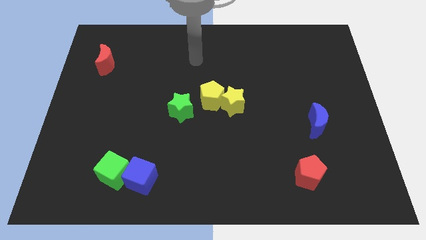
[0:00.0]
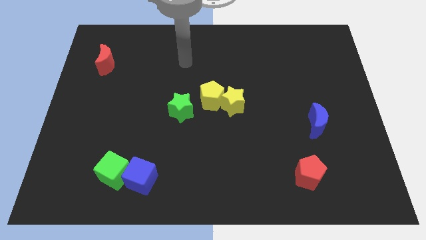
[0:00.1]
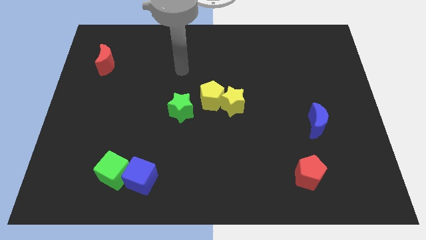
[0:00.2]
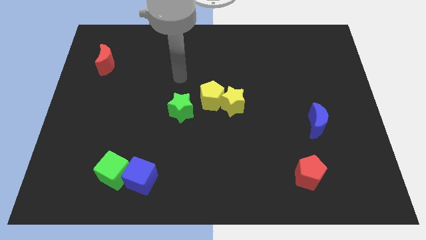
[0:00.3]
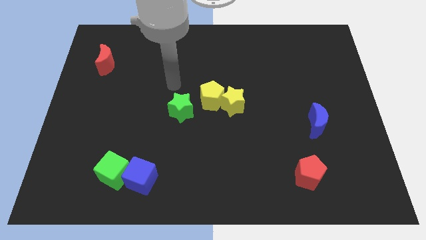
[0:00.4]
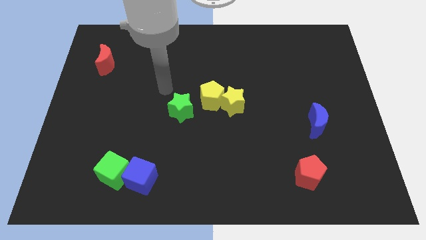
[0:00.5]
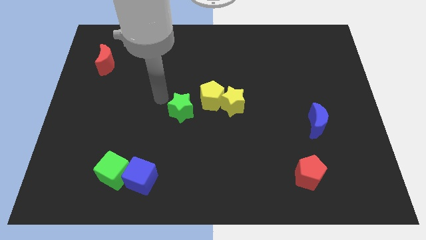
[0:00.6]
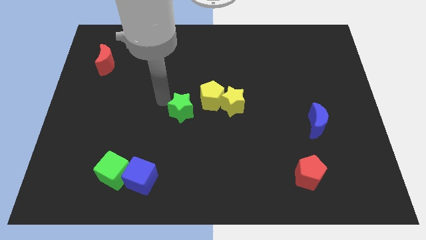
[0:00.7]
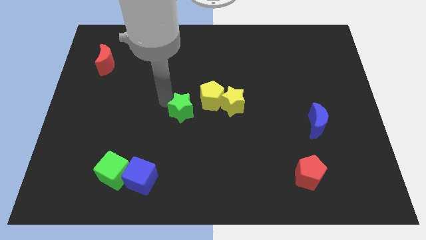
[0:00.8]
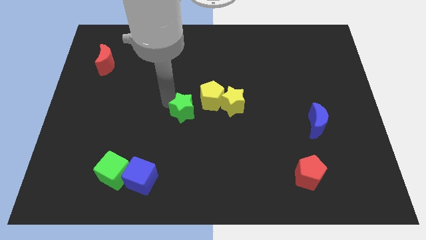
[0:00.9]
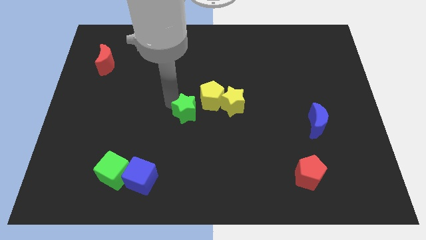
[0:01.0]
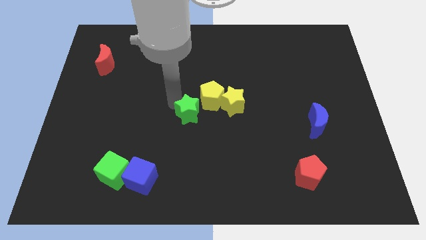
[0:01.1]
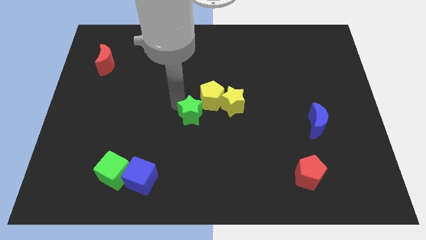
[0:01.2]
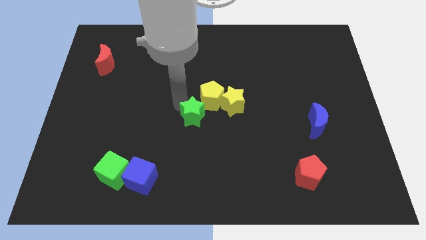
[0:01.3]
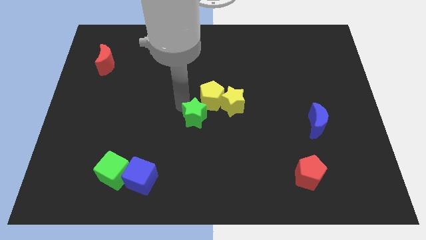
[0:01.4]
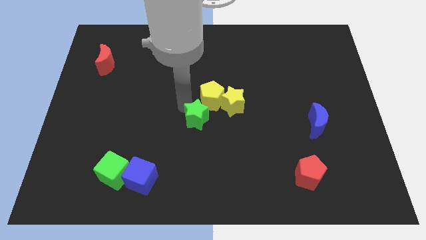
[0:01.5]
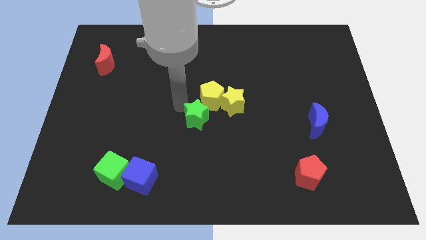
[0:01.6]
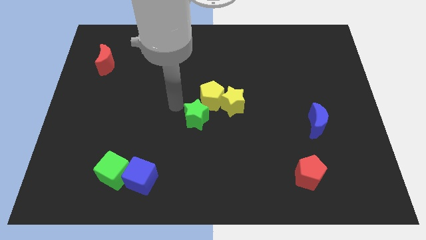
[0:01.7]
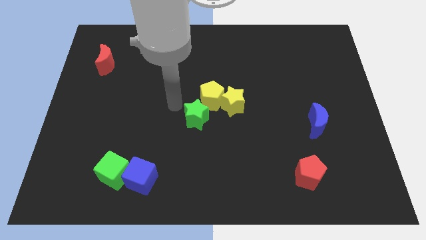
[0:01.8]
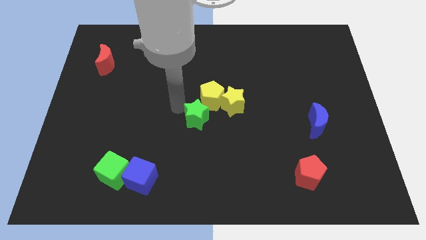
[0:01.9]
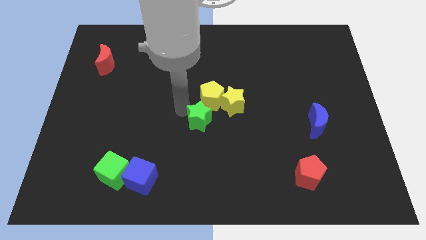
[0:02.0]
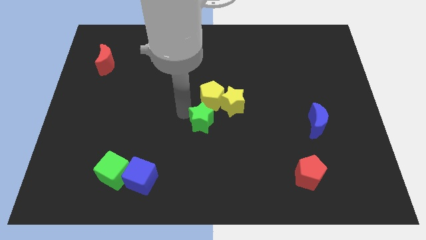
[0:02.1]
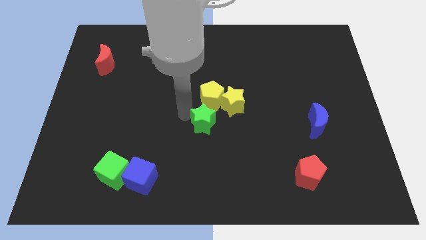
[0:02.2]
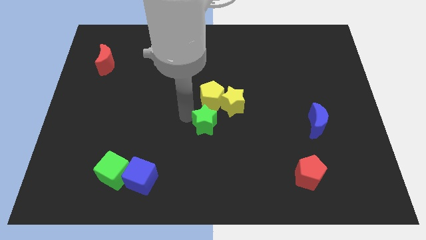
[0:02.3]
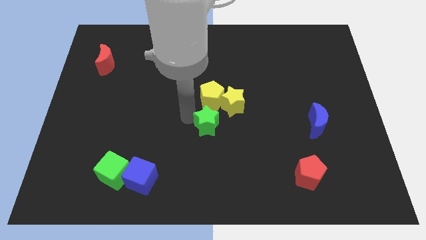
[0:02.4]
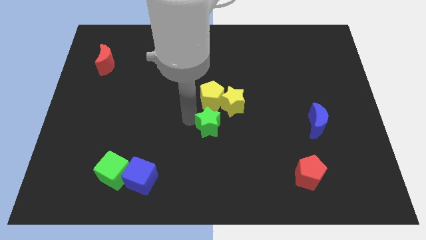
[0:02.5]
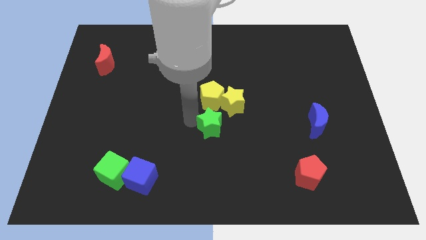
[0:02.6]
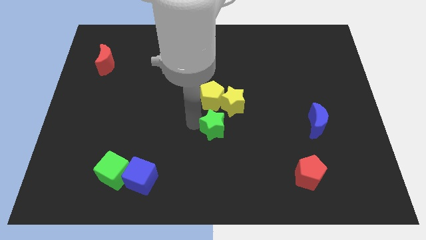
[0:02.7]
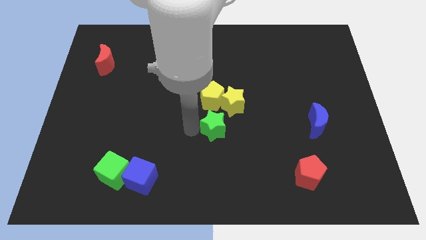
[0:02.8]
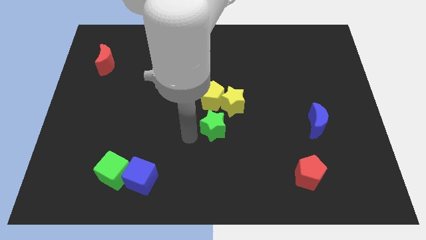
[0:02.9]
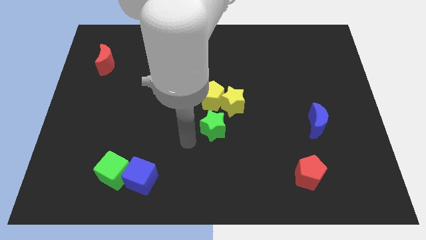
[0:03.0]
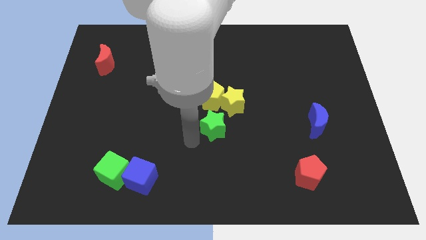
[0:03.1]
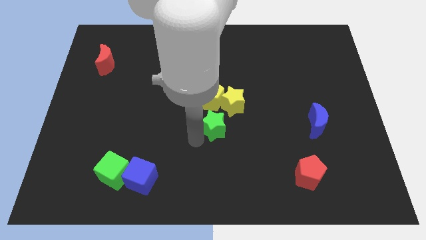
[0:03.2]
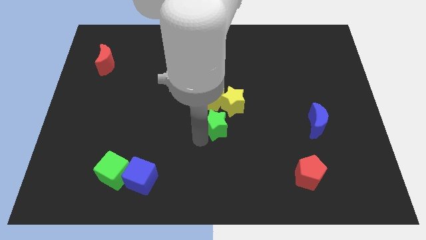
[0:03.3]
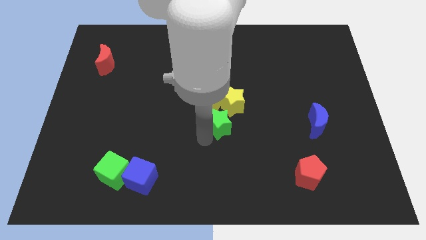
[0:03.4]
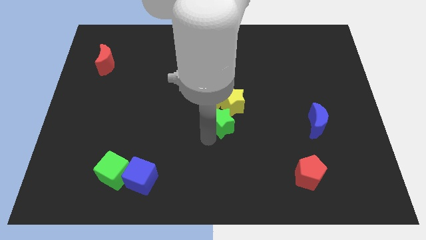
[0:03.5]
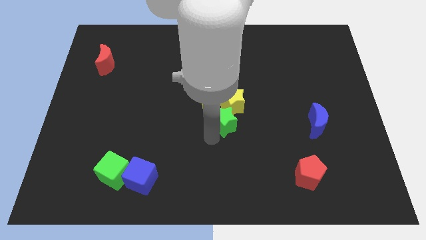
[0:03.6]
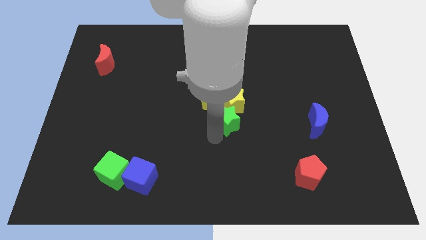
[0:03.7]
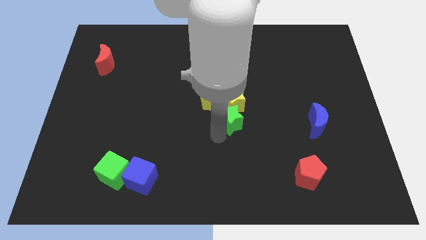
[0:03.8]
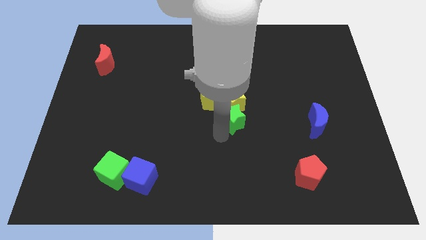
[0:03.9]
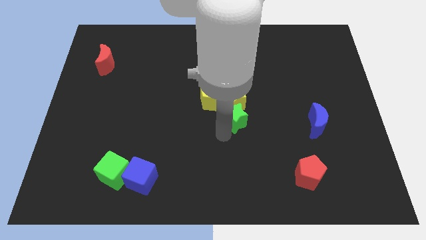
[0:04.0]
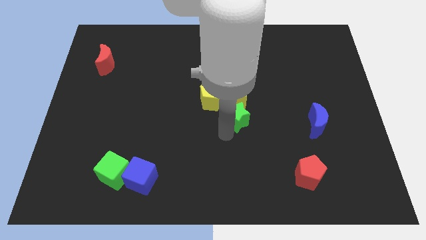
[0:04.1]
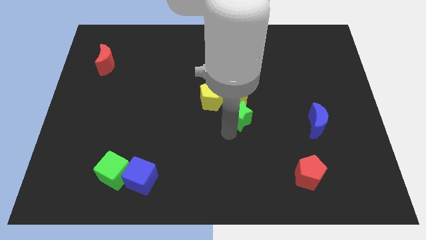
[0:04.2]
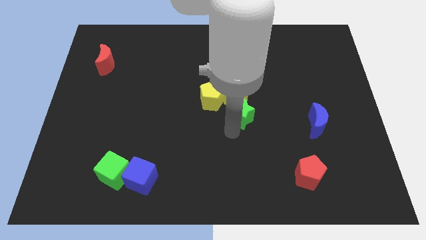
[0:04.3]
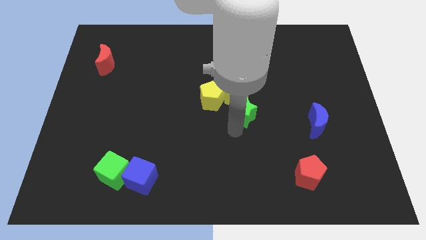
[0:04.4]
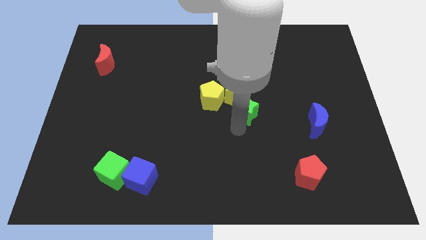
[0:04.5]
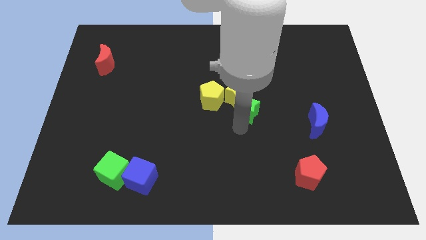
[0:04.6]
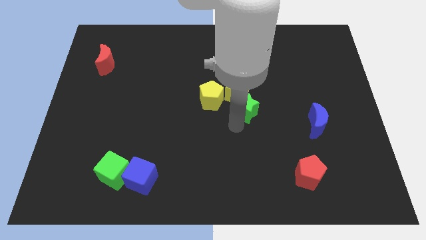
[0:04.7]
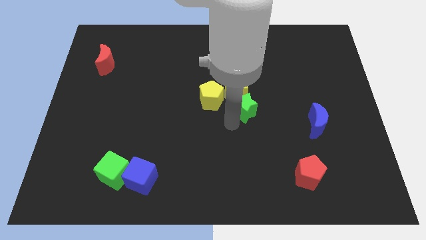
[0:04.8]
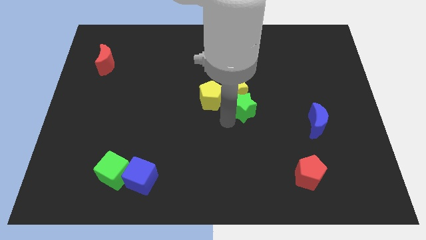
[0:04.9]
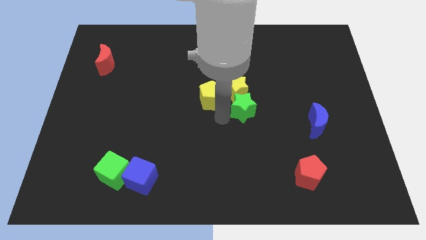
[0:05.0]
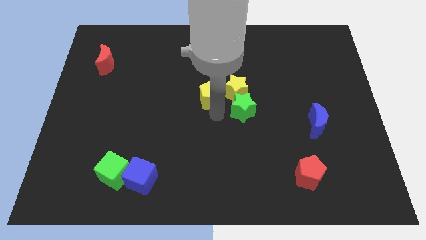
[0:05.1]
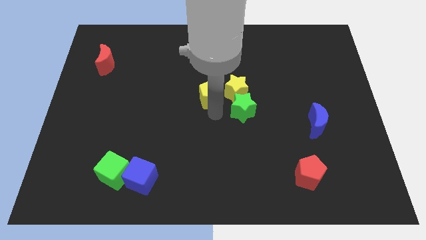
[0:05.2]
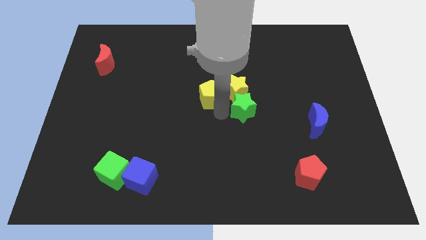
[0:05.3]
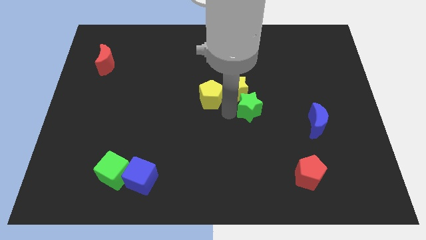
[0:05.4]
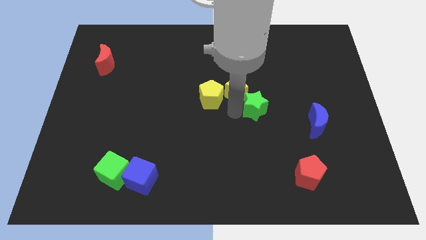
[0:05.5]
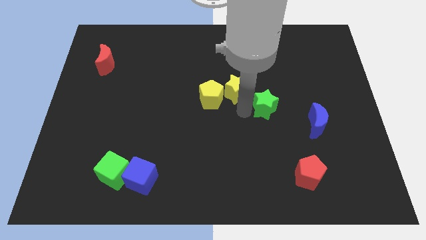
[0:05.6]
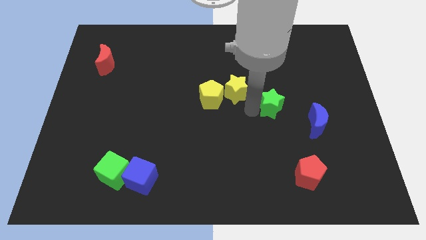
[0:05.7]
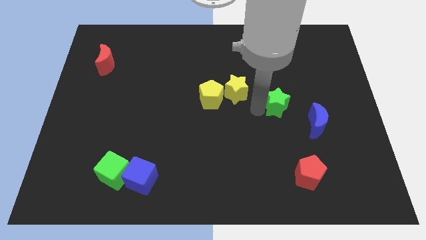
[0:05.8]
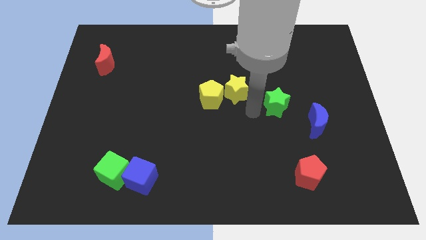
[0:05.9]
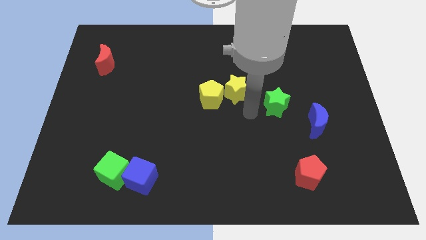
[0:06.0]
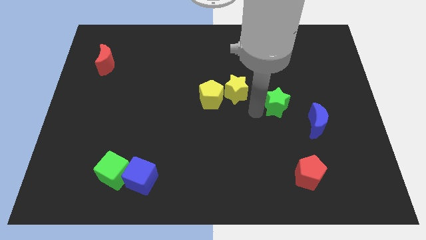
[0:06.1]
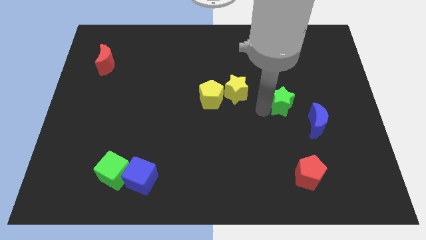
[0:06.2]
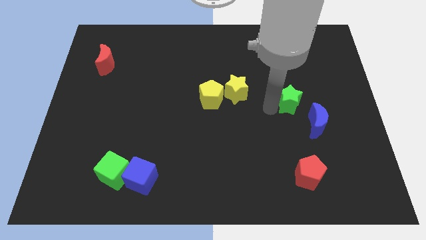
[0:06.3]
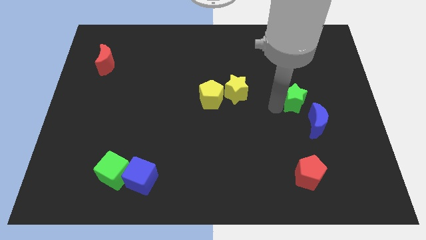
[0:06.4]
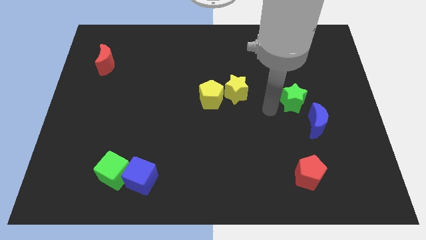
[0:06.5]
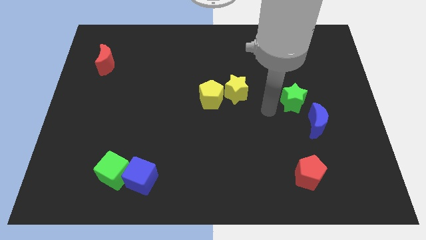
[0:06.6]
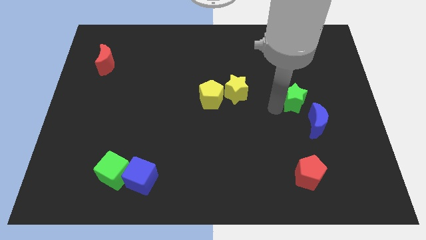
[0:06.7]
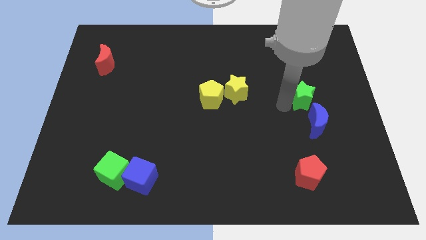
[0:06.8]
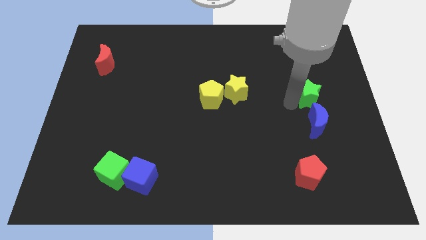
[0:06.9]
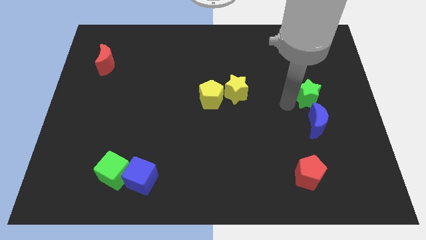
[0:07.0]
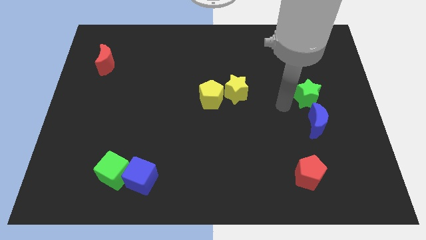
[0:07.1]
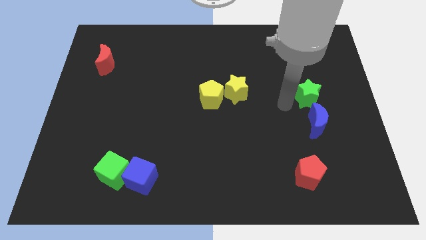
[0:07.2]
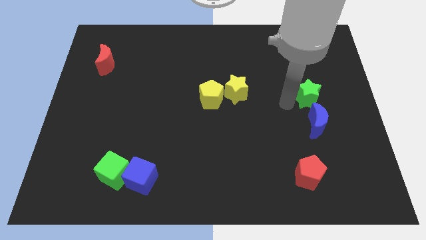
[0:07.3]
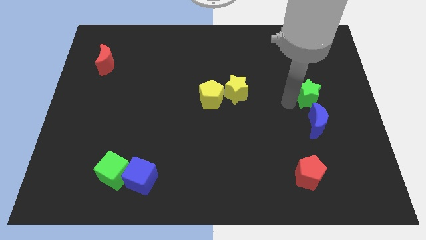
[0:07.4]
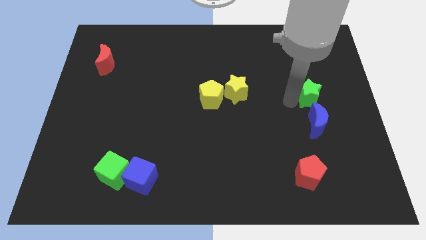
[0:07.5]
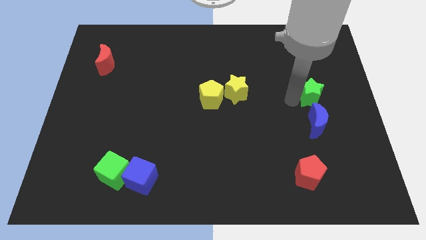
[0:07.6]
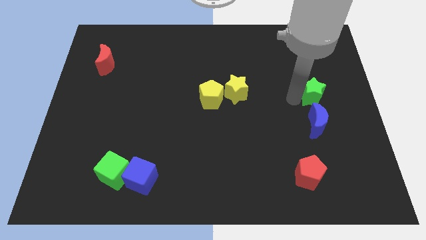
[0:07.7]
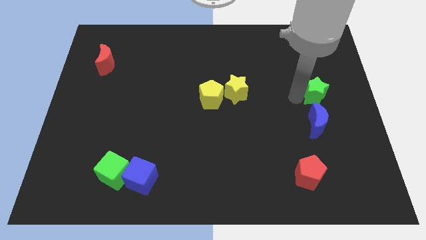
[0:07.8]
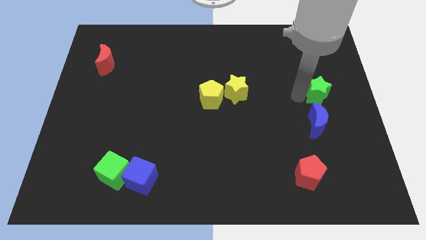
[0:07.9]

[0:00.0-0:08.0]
put the green star to the right side
